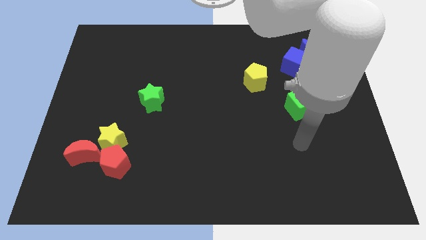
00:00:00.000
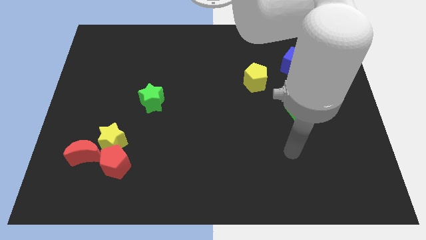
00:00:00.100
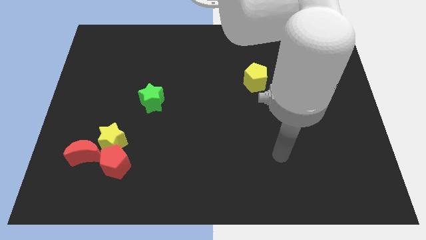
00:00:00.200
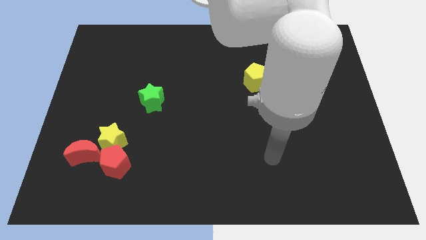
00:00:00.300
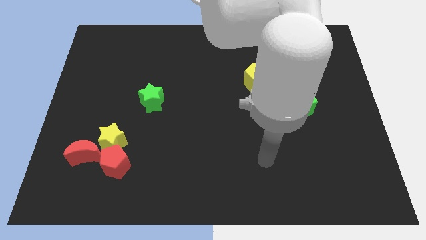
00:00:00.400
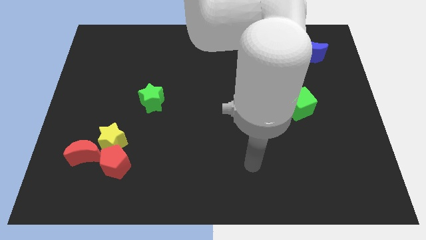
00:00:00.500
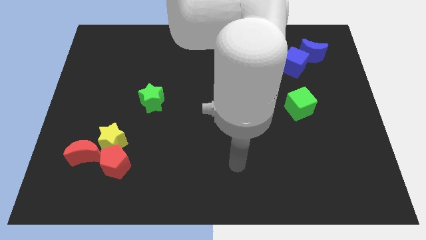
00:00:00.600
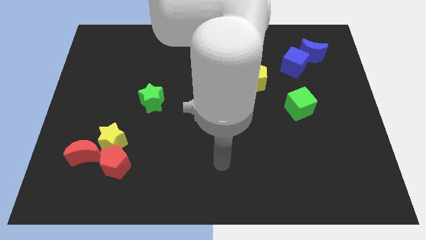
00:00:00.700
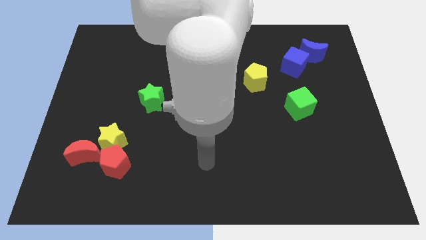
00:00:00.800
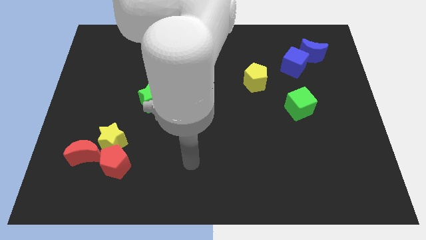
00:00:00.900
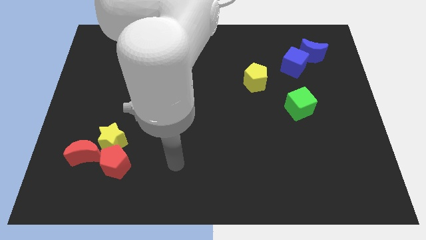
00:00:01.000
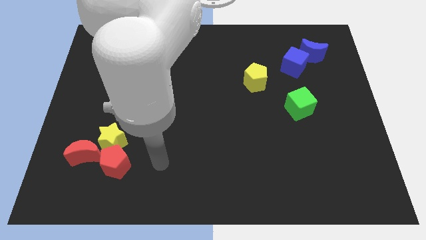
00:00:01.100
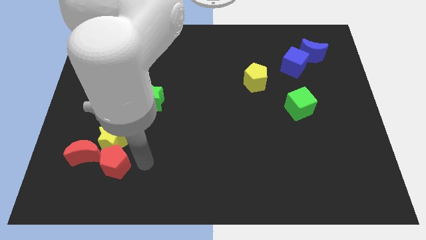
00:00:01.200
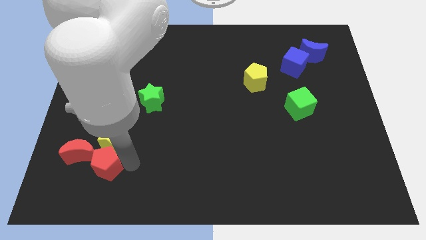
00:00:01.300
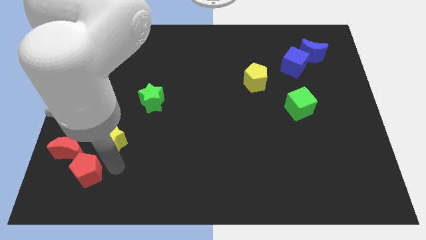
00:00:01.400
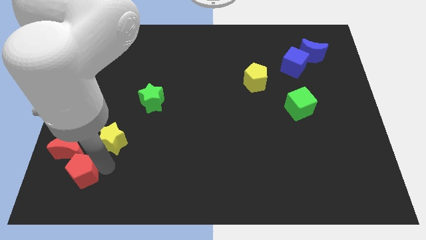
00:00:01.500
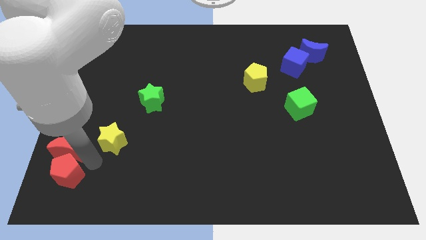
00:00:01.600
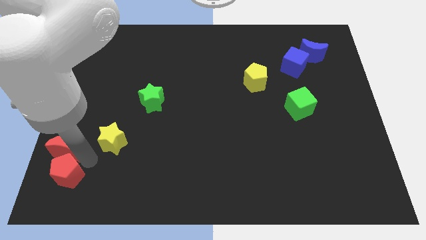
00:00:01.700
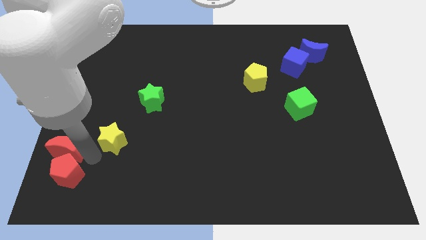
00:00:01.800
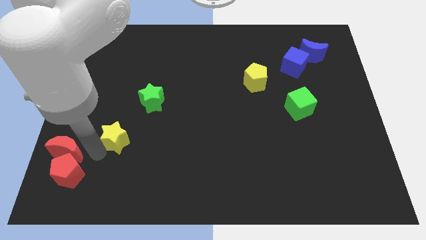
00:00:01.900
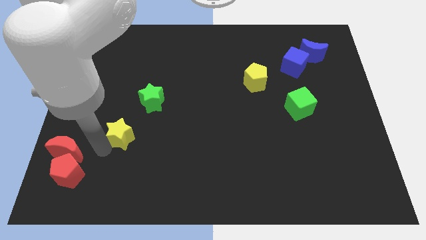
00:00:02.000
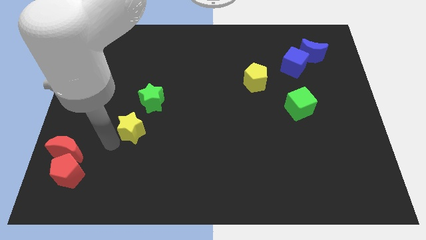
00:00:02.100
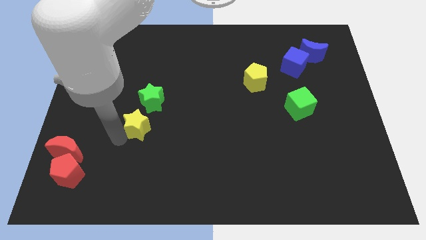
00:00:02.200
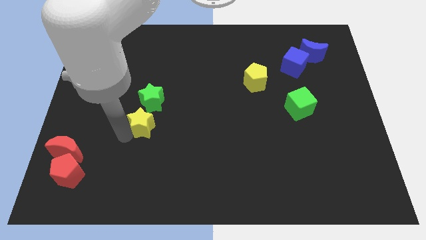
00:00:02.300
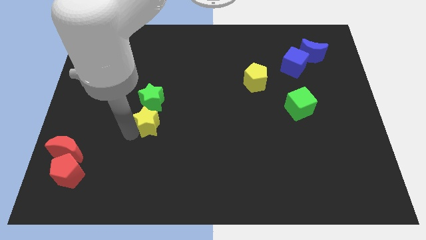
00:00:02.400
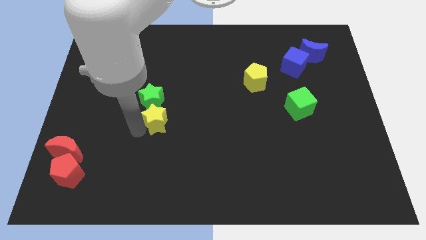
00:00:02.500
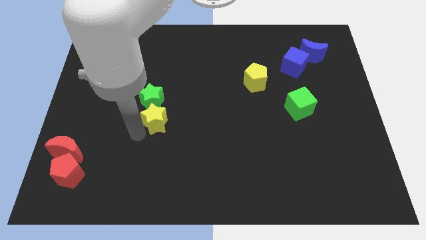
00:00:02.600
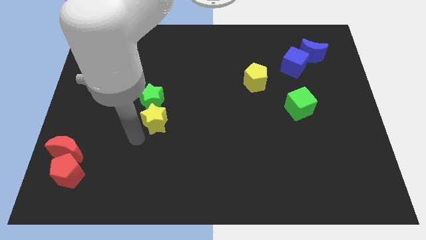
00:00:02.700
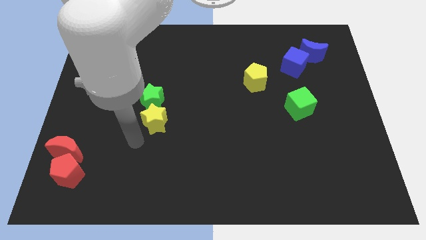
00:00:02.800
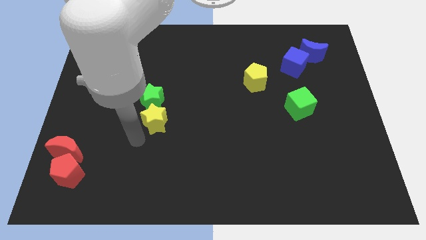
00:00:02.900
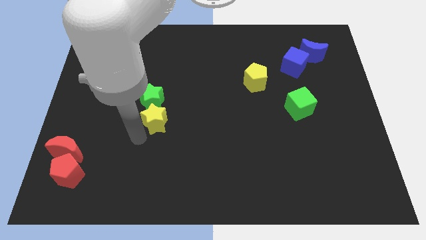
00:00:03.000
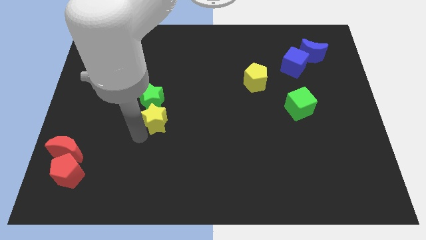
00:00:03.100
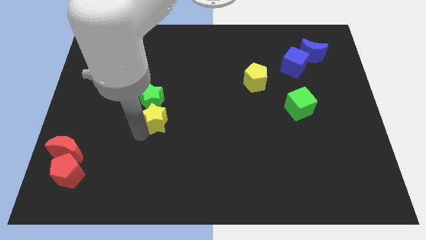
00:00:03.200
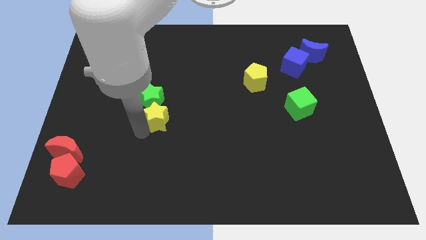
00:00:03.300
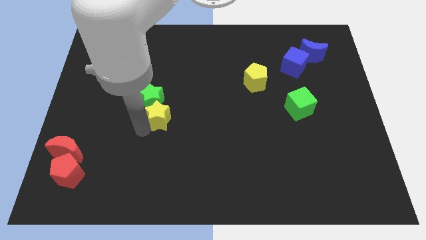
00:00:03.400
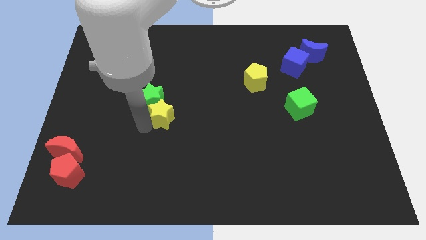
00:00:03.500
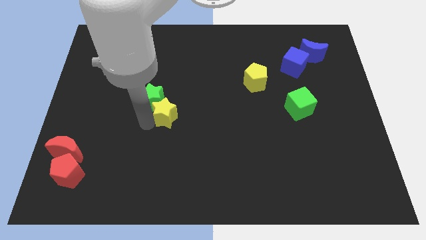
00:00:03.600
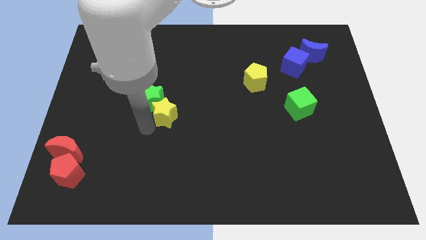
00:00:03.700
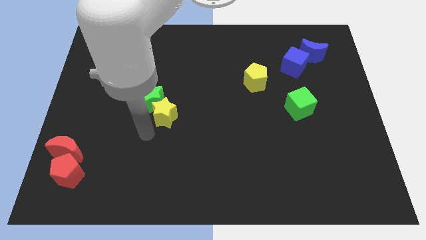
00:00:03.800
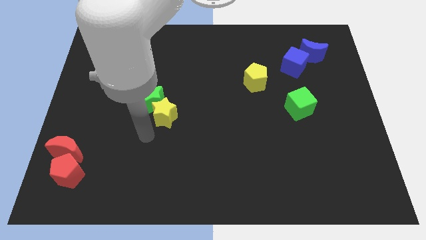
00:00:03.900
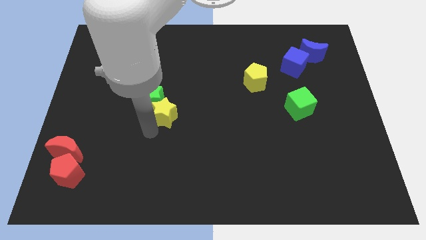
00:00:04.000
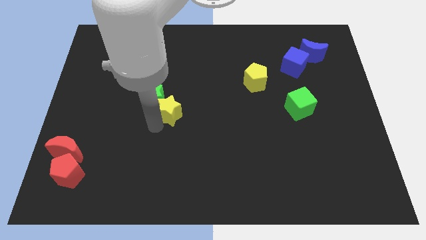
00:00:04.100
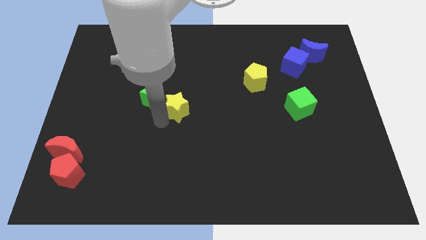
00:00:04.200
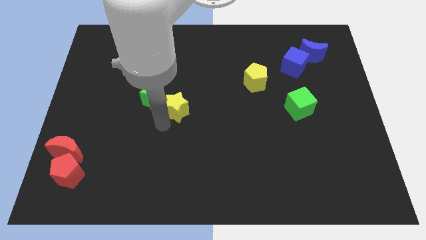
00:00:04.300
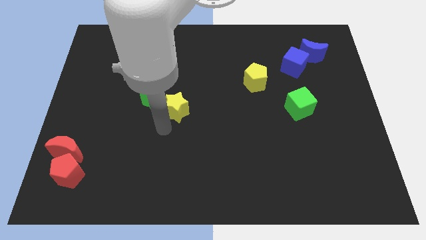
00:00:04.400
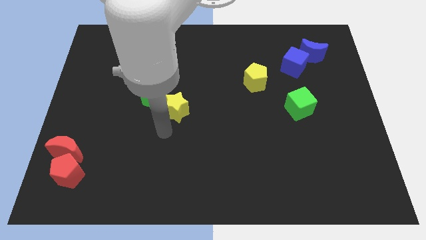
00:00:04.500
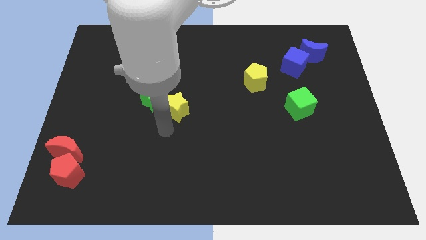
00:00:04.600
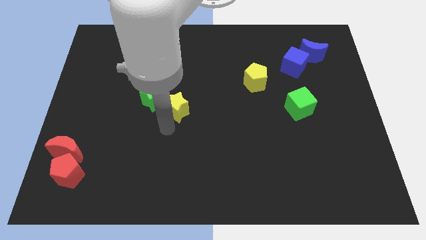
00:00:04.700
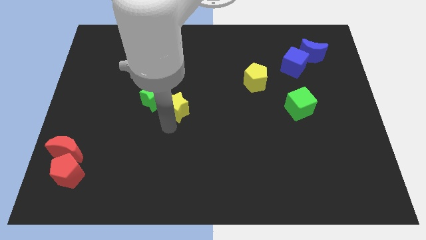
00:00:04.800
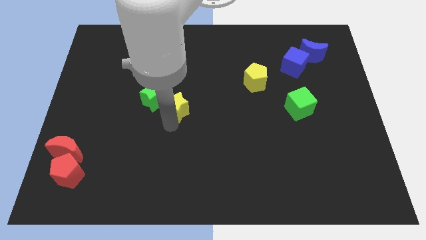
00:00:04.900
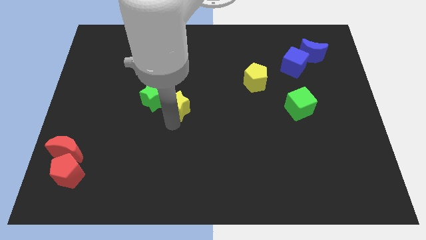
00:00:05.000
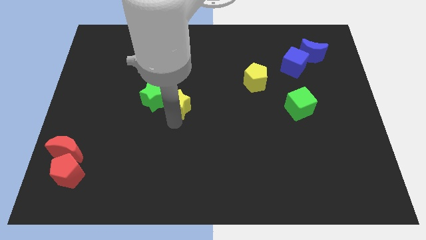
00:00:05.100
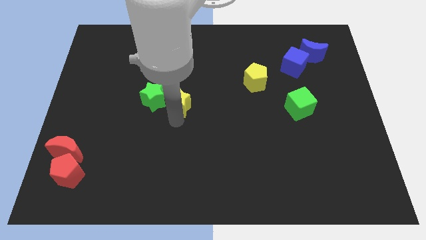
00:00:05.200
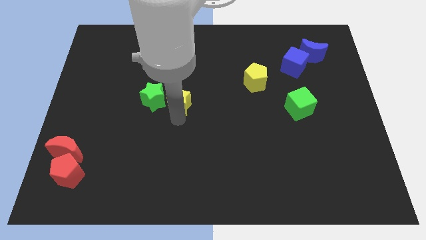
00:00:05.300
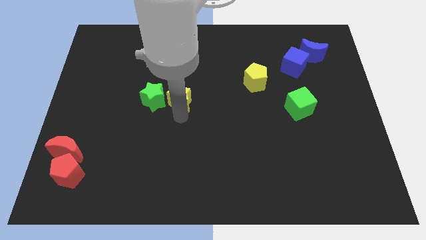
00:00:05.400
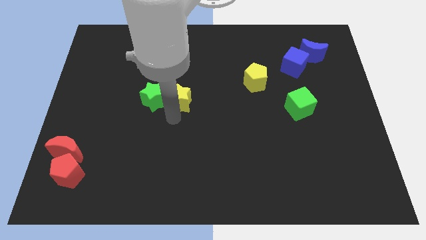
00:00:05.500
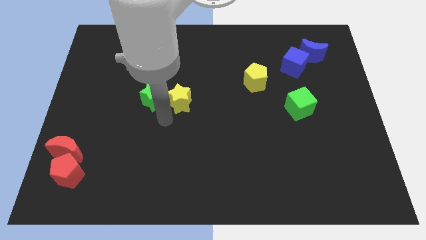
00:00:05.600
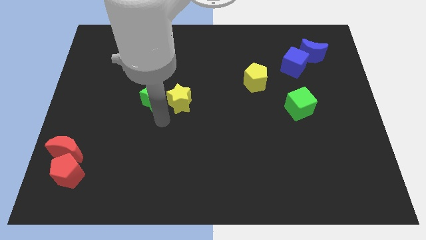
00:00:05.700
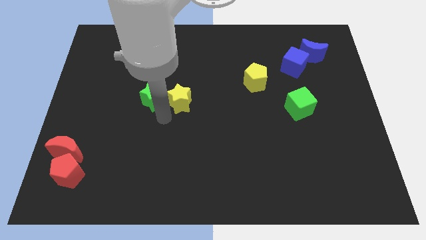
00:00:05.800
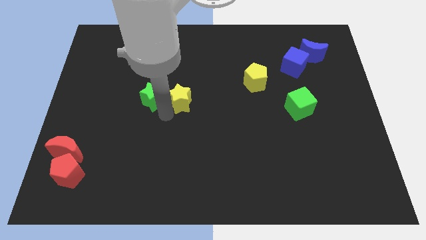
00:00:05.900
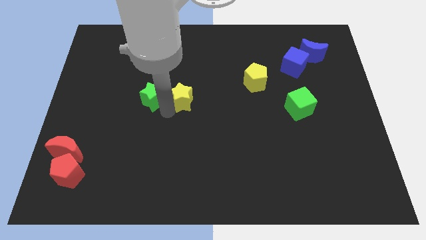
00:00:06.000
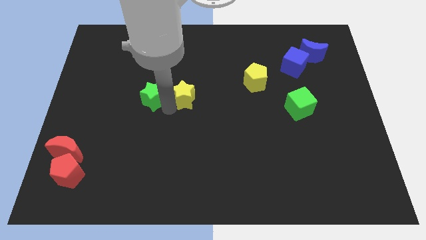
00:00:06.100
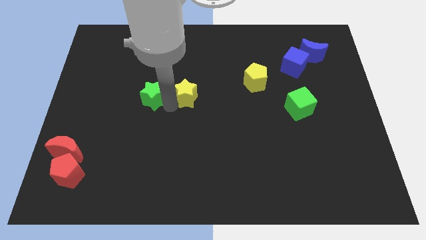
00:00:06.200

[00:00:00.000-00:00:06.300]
push the yellow star up and right diagonally

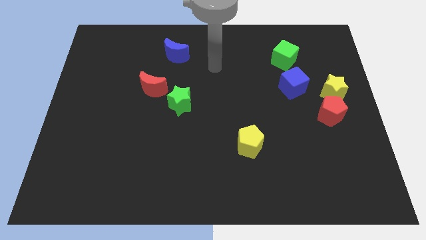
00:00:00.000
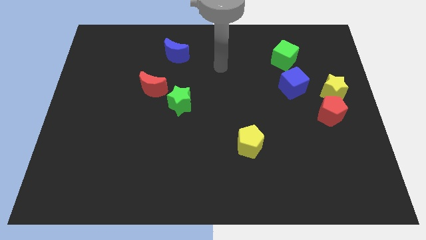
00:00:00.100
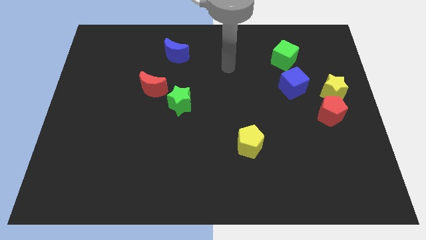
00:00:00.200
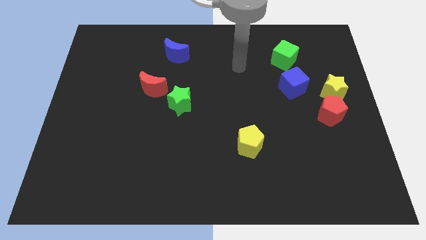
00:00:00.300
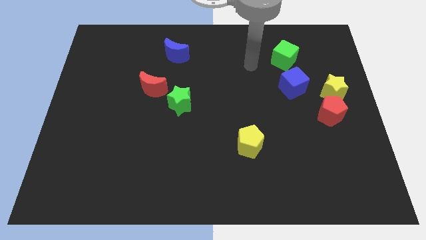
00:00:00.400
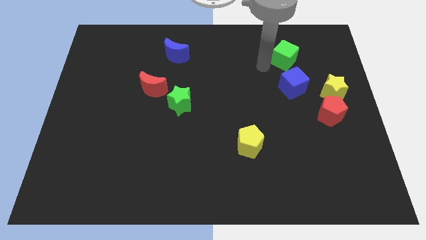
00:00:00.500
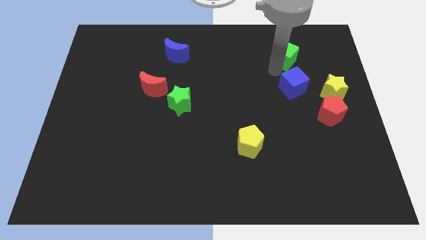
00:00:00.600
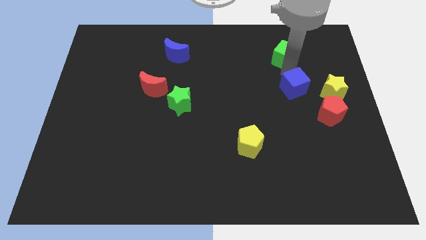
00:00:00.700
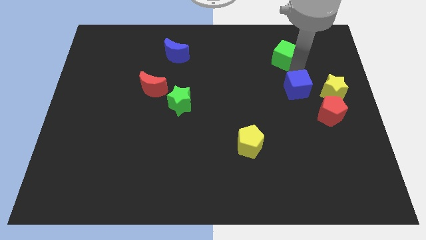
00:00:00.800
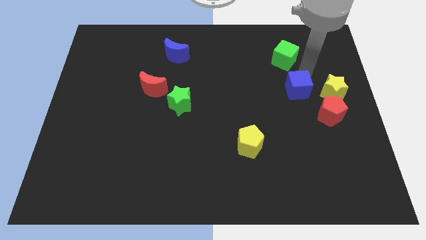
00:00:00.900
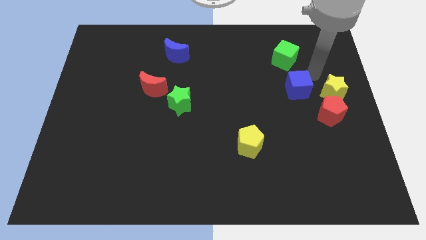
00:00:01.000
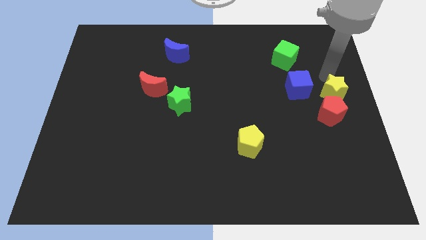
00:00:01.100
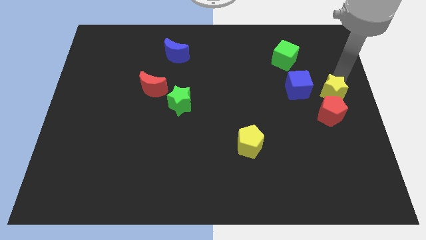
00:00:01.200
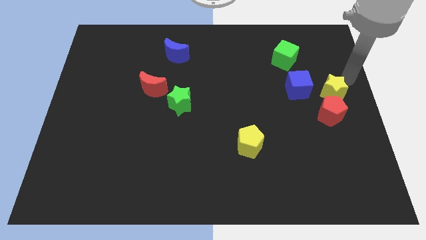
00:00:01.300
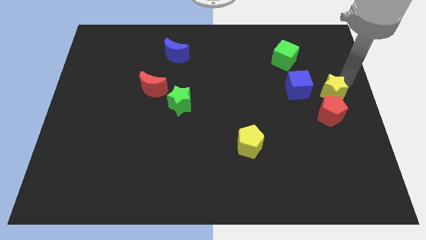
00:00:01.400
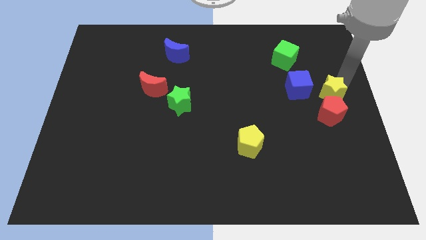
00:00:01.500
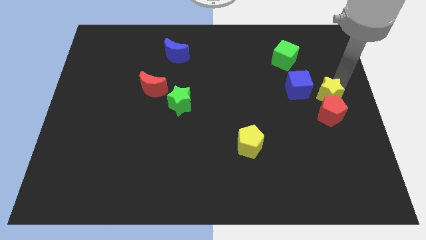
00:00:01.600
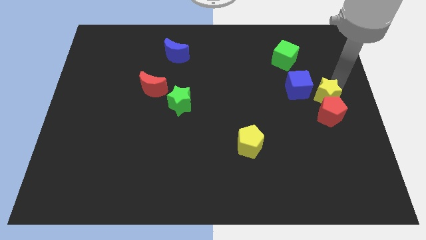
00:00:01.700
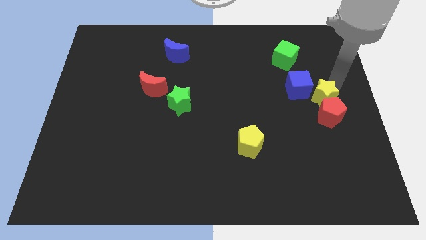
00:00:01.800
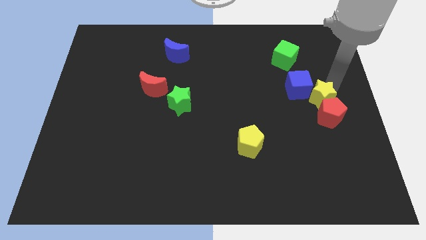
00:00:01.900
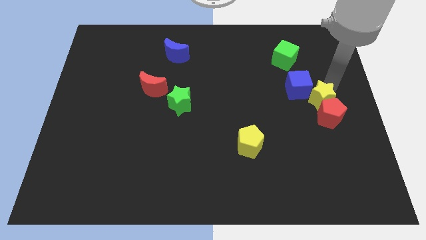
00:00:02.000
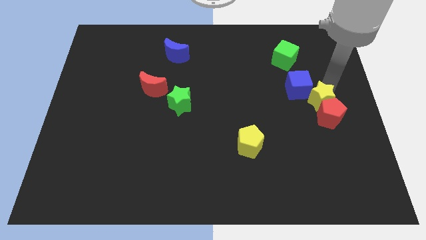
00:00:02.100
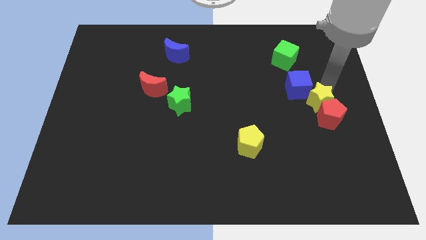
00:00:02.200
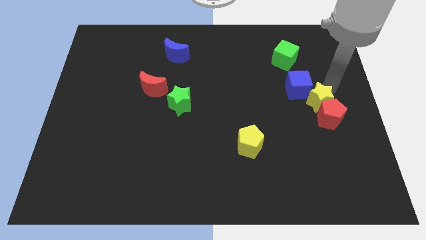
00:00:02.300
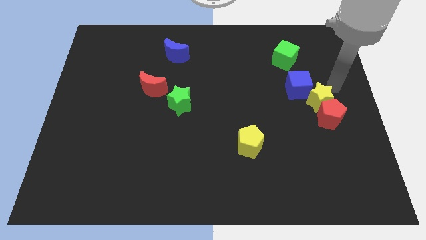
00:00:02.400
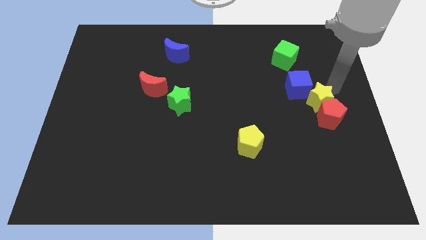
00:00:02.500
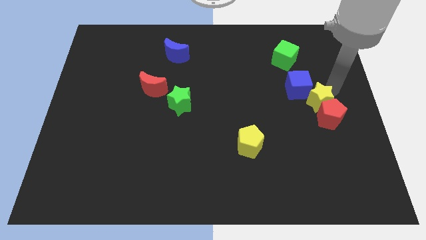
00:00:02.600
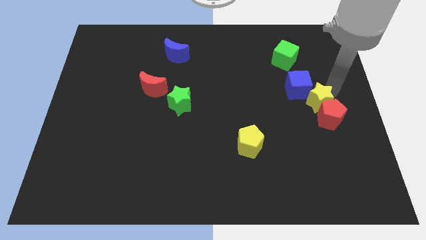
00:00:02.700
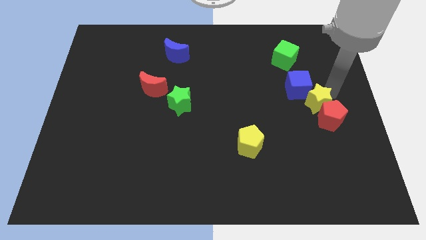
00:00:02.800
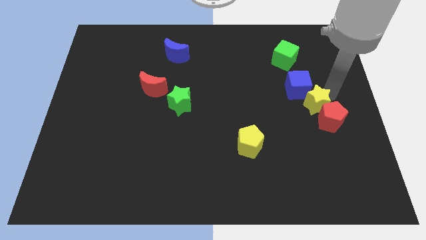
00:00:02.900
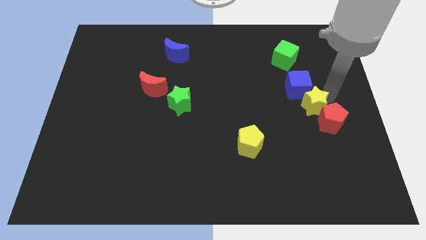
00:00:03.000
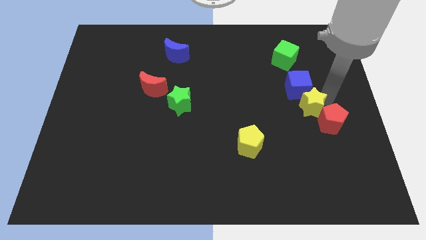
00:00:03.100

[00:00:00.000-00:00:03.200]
slide the yellow star a little downwards and left
